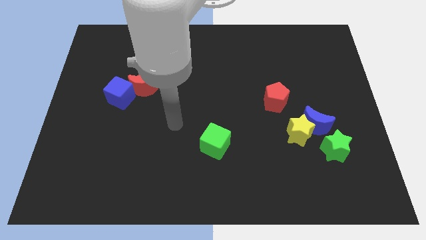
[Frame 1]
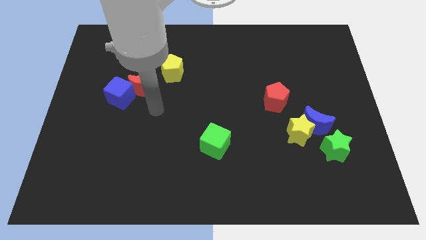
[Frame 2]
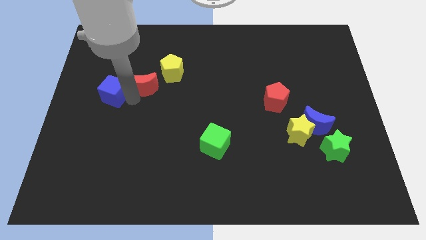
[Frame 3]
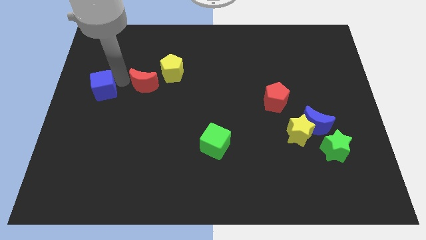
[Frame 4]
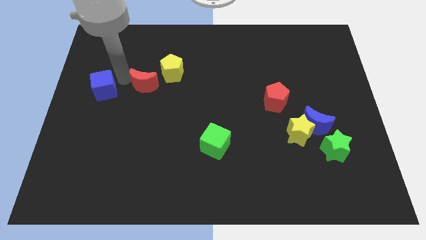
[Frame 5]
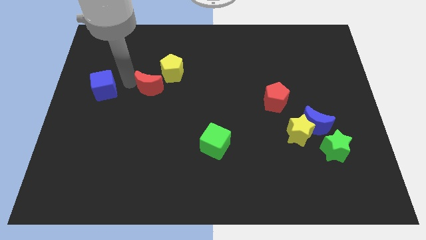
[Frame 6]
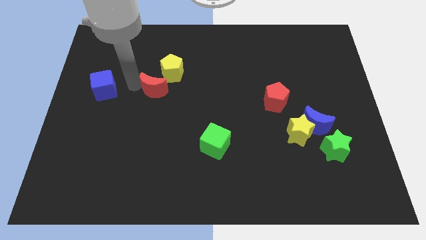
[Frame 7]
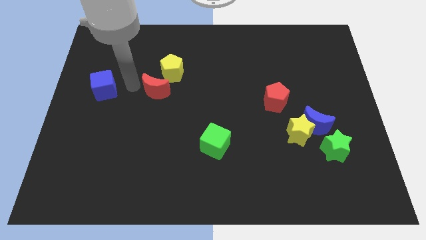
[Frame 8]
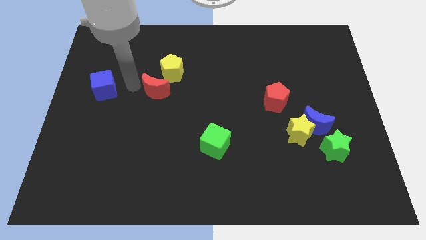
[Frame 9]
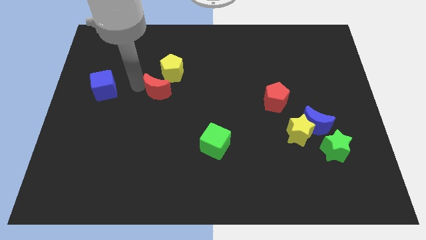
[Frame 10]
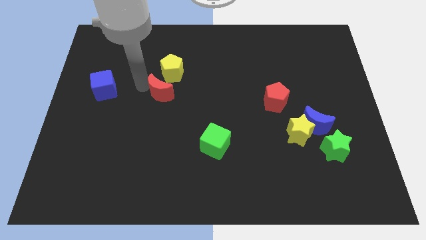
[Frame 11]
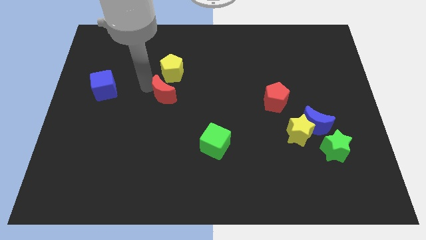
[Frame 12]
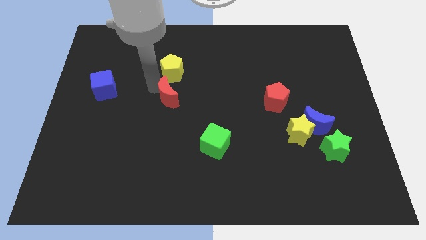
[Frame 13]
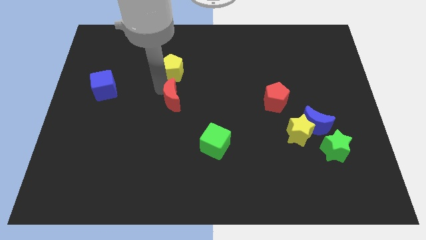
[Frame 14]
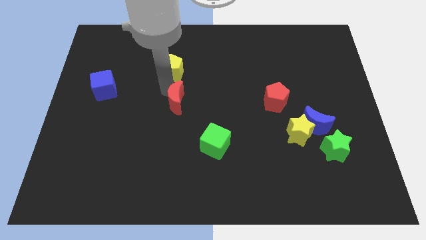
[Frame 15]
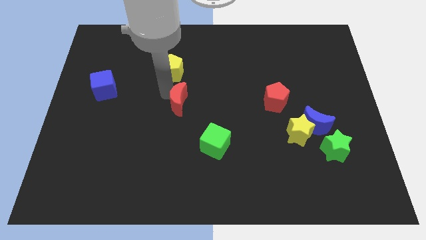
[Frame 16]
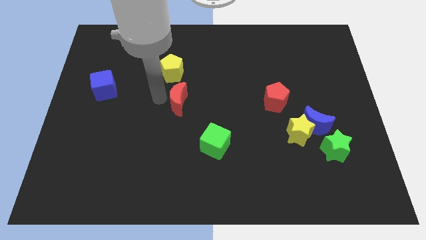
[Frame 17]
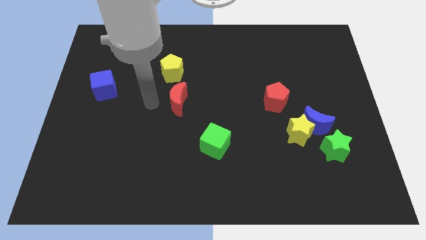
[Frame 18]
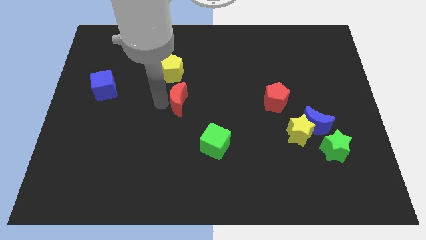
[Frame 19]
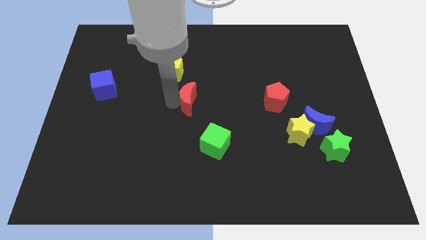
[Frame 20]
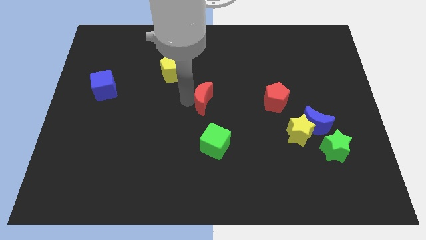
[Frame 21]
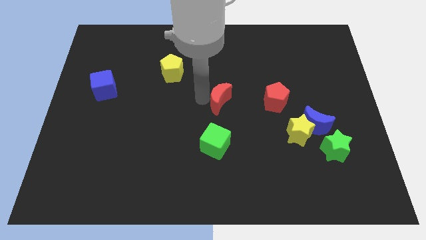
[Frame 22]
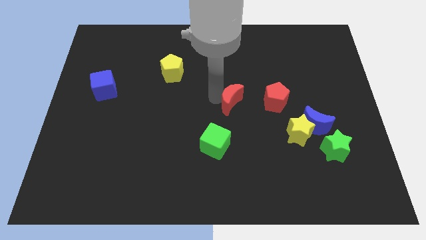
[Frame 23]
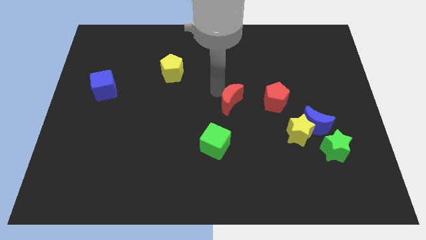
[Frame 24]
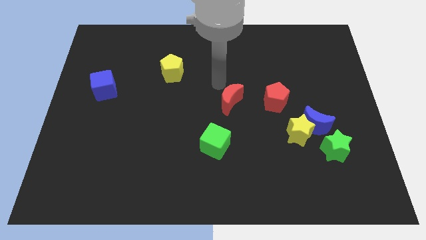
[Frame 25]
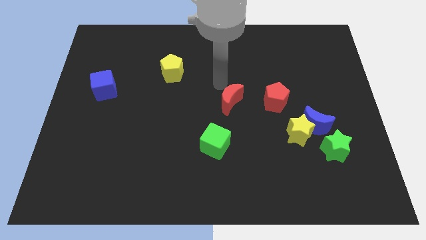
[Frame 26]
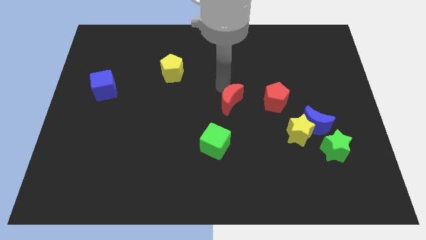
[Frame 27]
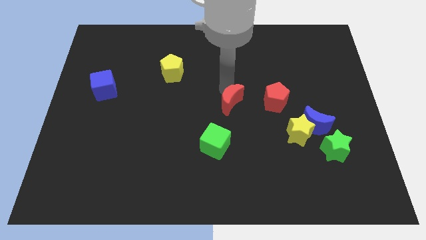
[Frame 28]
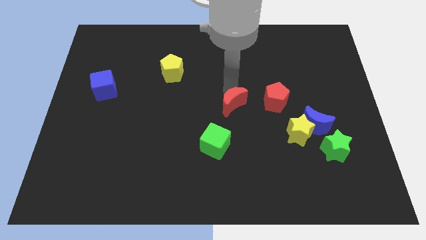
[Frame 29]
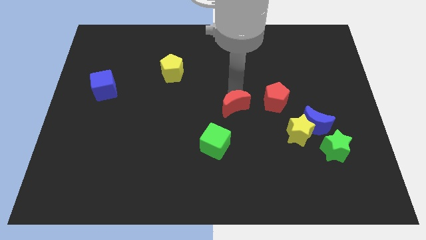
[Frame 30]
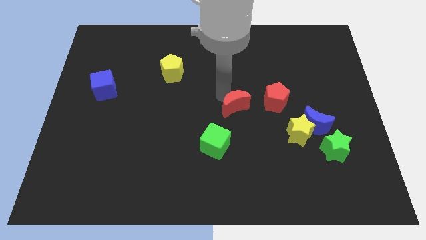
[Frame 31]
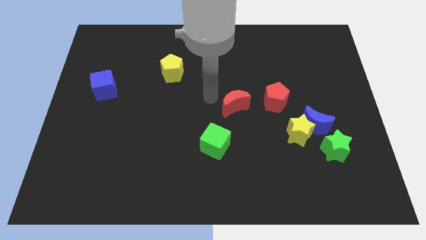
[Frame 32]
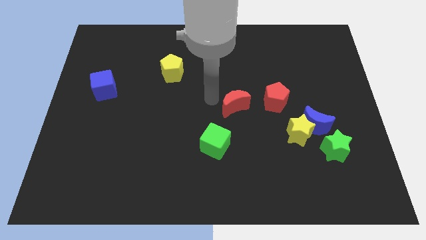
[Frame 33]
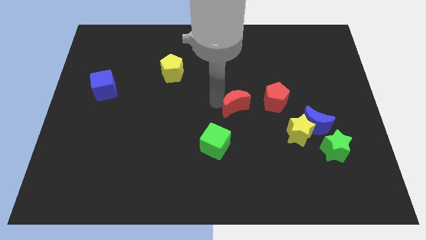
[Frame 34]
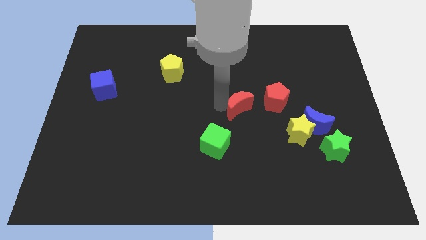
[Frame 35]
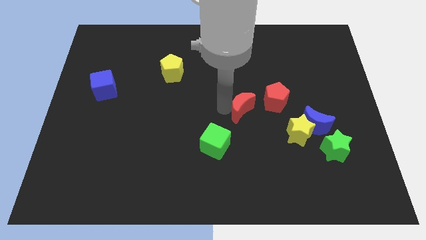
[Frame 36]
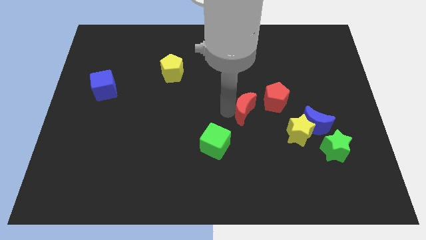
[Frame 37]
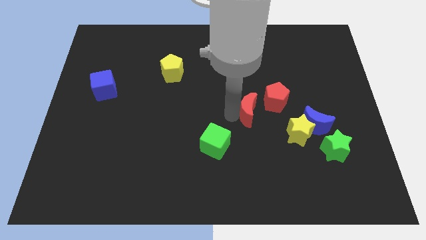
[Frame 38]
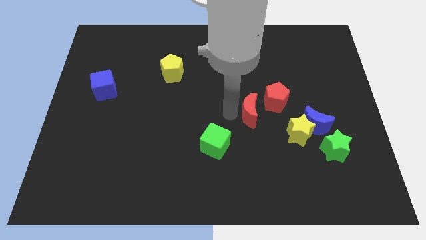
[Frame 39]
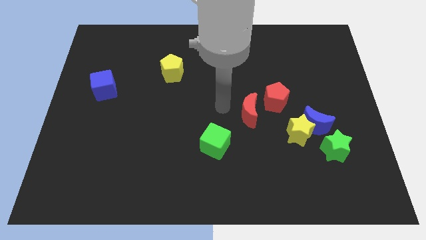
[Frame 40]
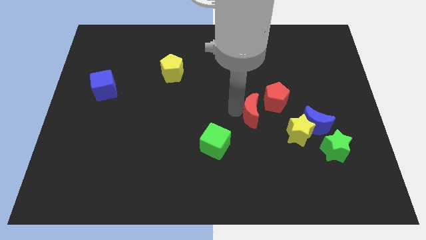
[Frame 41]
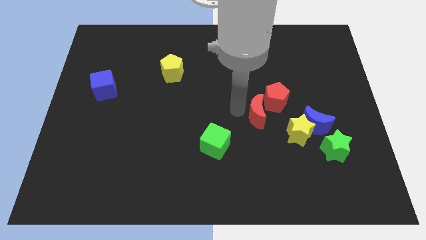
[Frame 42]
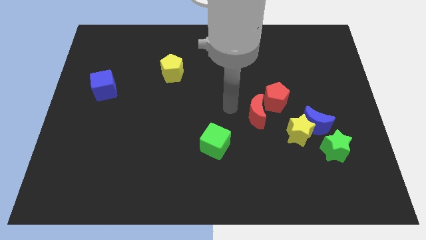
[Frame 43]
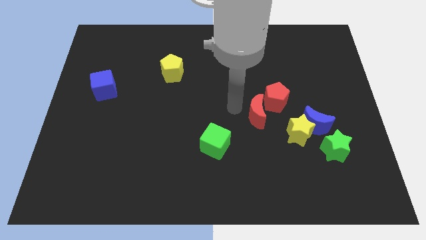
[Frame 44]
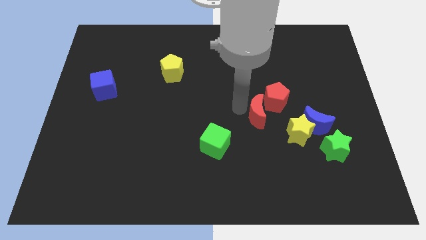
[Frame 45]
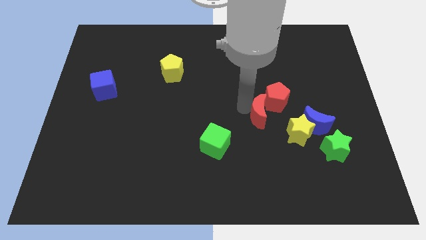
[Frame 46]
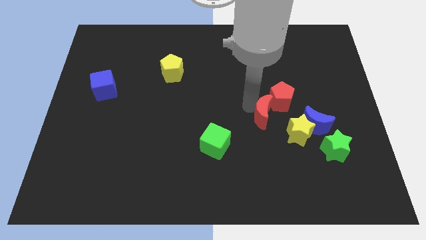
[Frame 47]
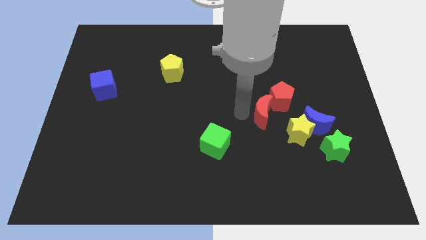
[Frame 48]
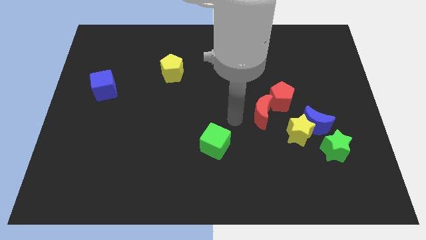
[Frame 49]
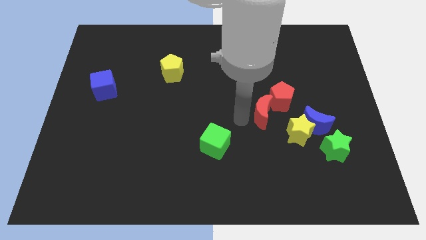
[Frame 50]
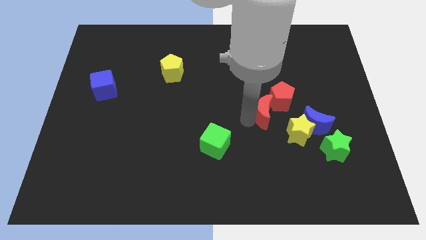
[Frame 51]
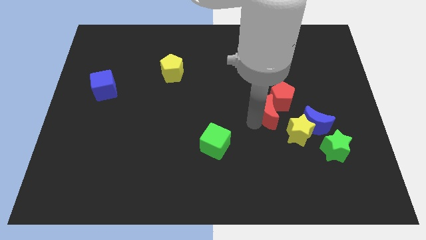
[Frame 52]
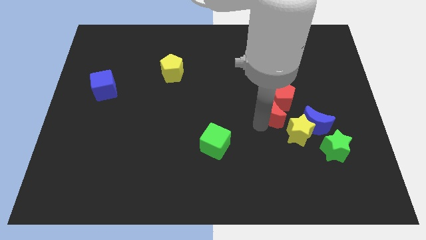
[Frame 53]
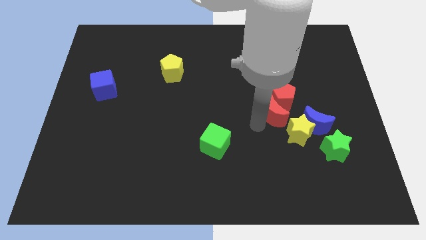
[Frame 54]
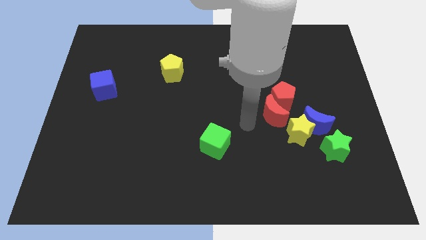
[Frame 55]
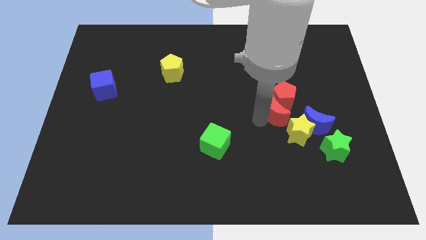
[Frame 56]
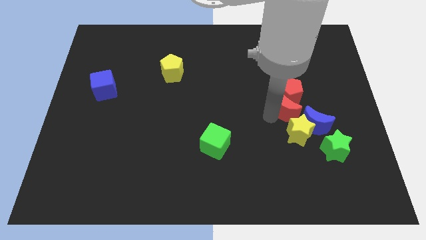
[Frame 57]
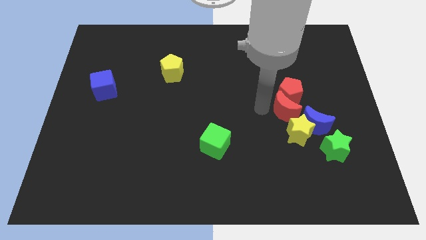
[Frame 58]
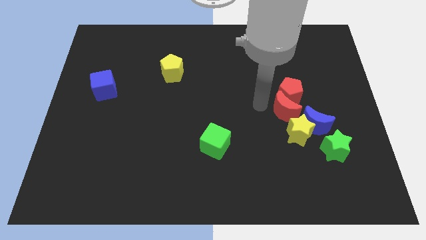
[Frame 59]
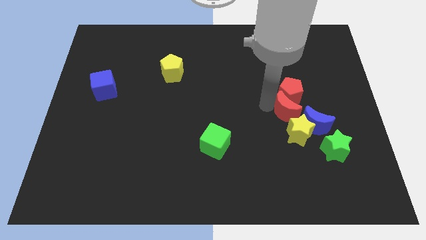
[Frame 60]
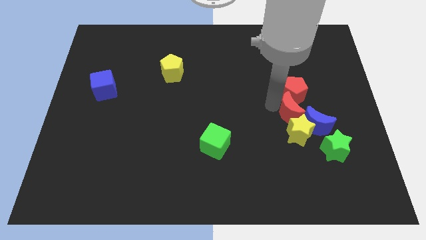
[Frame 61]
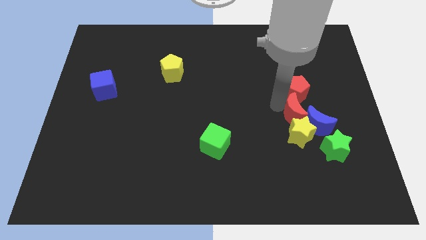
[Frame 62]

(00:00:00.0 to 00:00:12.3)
slide the red moon next to the blue moon

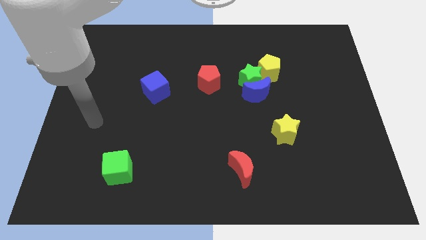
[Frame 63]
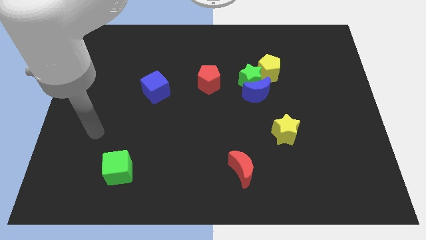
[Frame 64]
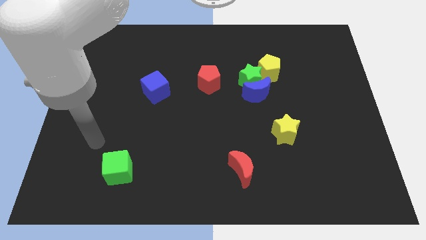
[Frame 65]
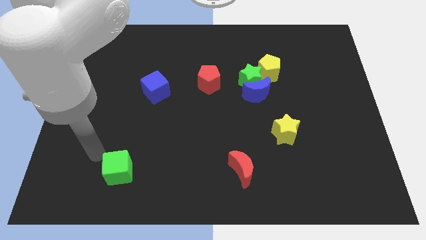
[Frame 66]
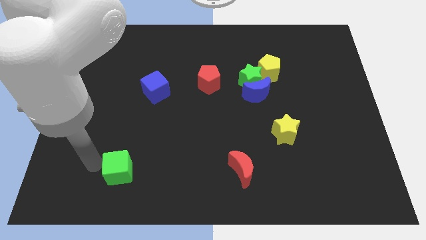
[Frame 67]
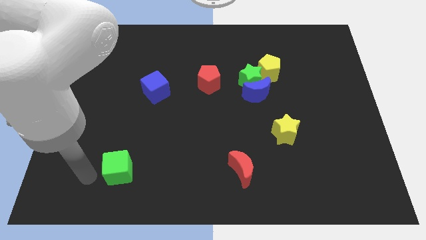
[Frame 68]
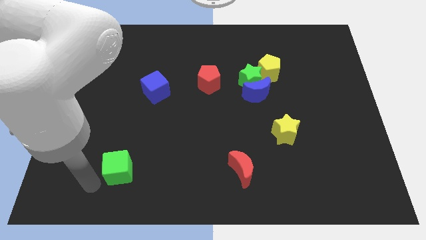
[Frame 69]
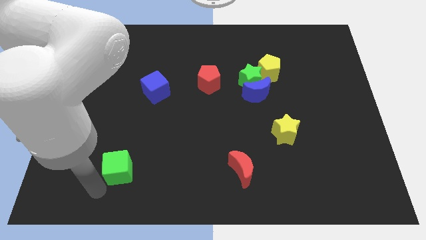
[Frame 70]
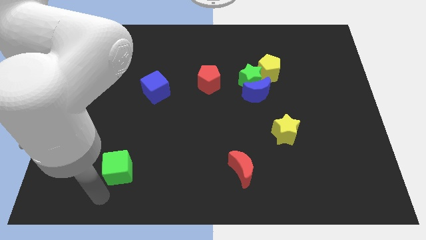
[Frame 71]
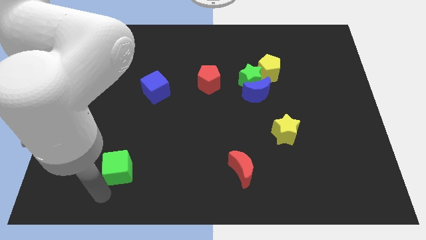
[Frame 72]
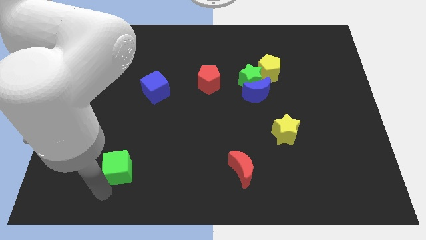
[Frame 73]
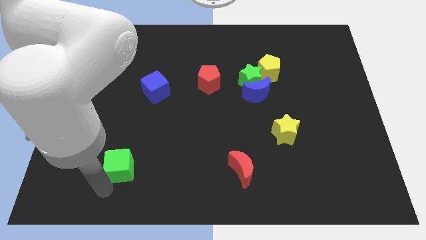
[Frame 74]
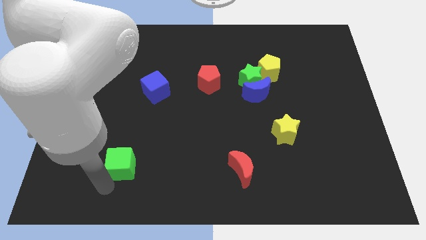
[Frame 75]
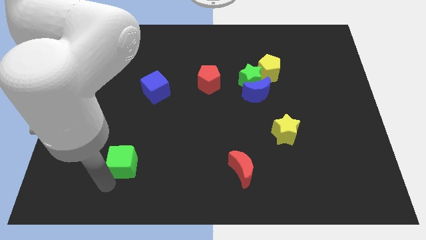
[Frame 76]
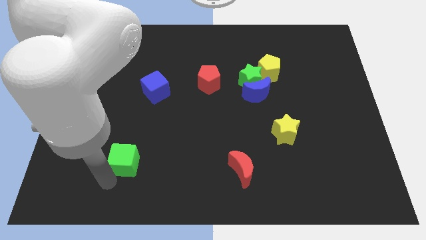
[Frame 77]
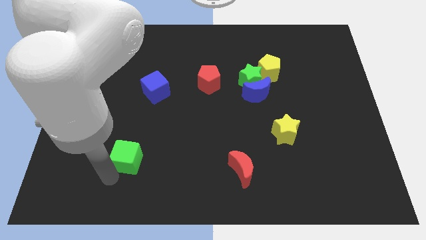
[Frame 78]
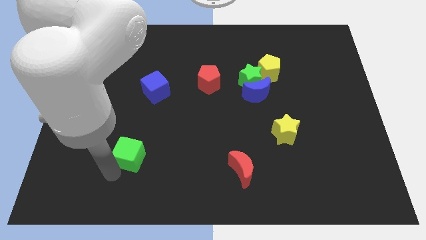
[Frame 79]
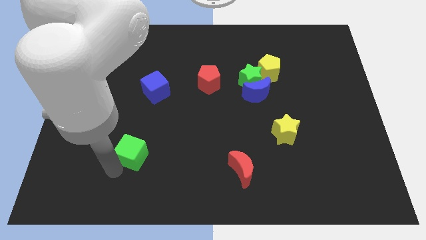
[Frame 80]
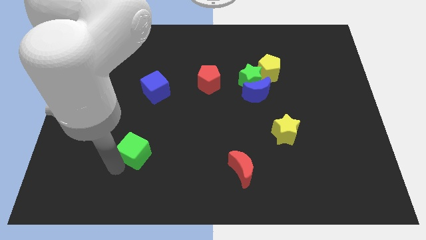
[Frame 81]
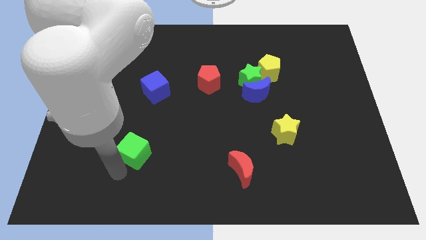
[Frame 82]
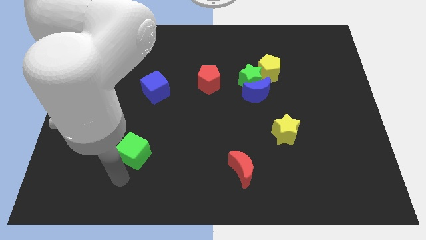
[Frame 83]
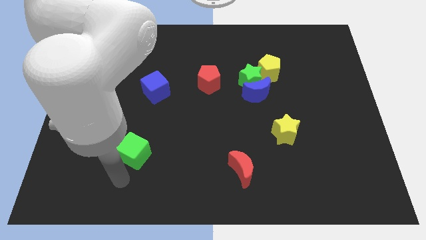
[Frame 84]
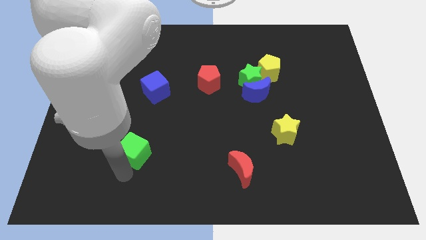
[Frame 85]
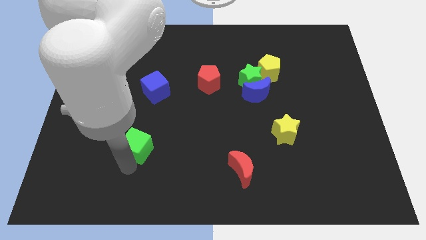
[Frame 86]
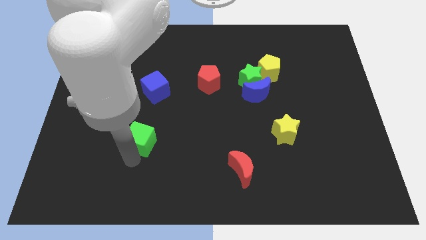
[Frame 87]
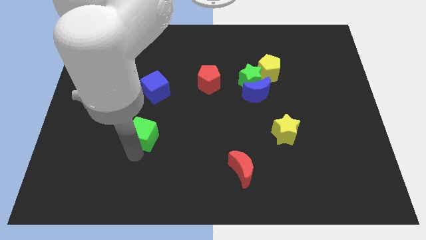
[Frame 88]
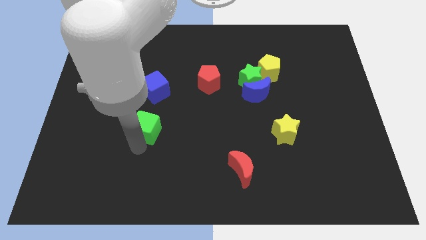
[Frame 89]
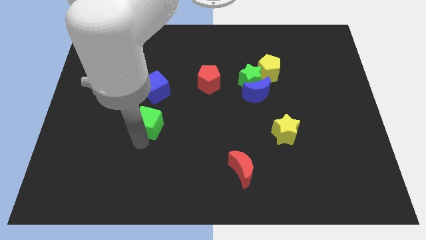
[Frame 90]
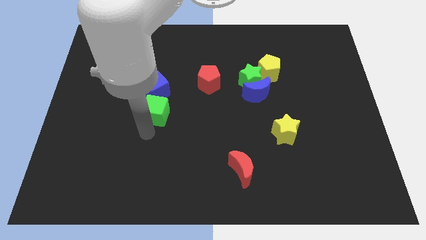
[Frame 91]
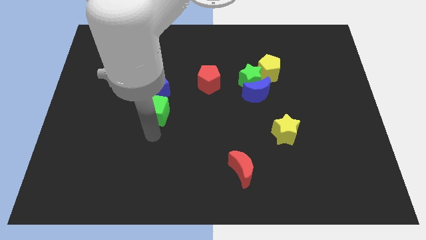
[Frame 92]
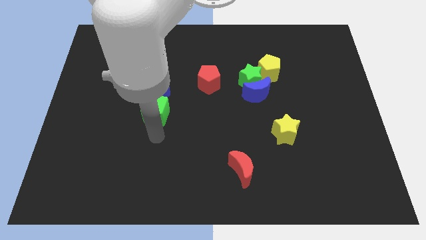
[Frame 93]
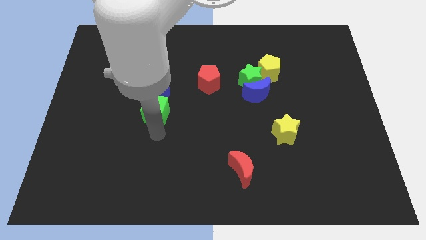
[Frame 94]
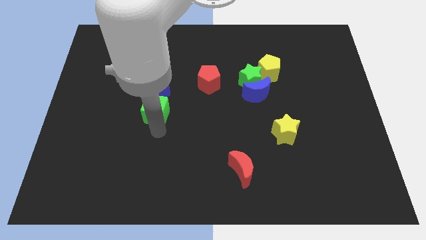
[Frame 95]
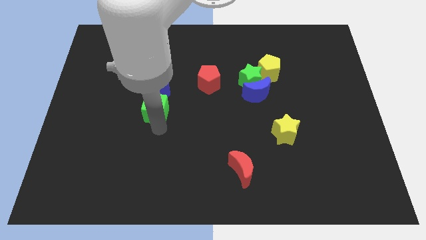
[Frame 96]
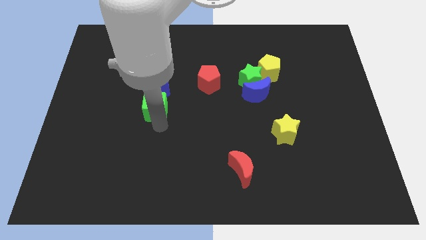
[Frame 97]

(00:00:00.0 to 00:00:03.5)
put the green cube close to the blue cube
